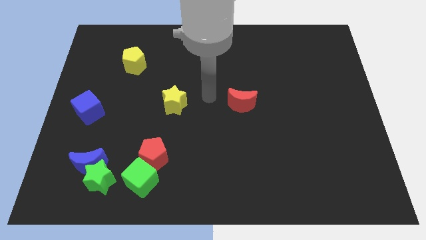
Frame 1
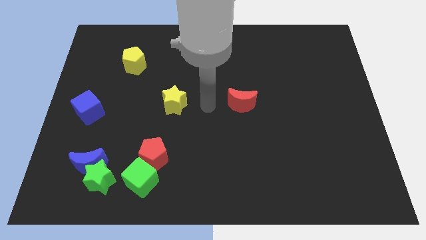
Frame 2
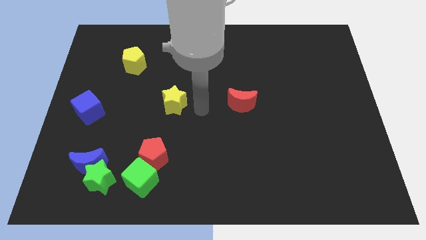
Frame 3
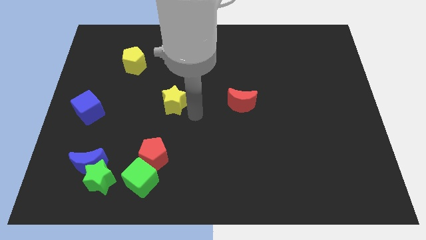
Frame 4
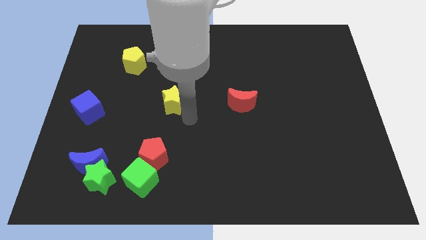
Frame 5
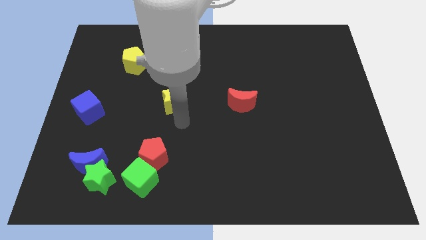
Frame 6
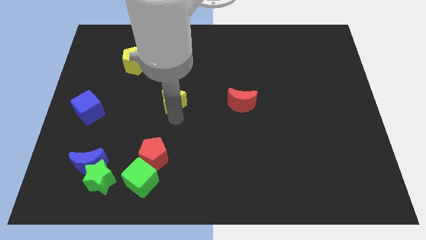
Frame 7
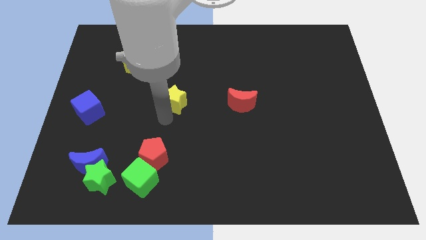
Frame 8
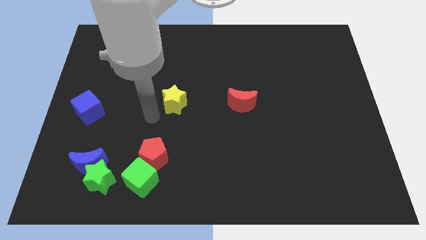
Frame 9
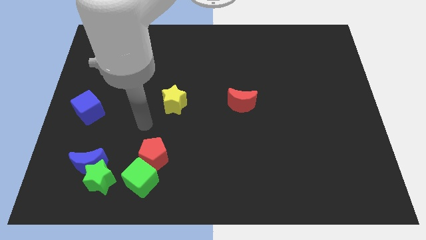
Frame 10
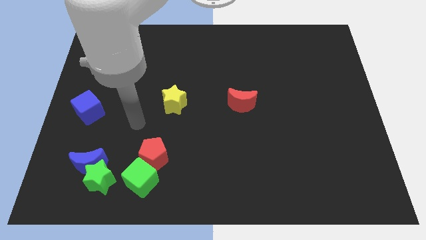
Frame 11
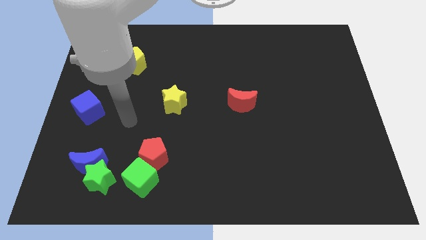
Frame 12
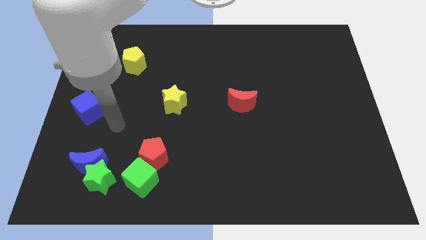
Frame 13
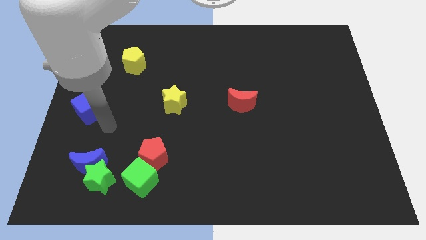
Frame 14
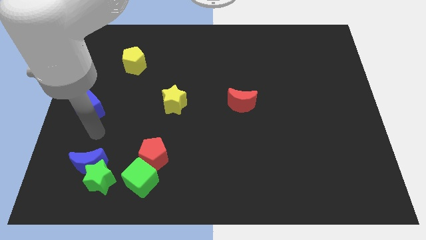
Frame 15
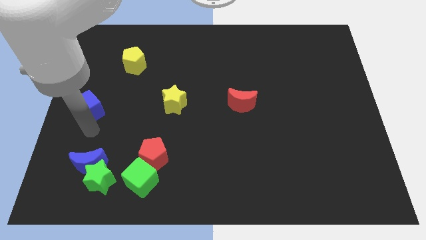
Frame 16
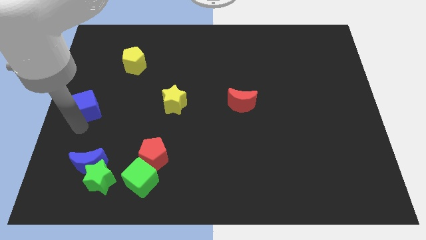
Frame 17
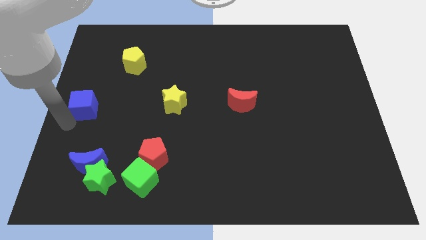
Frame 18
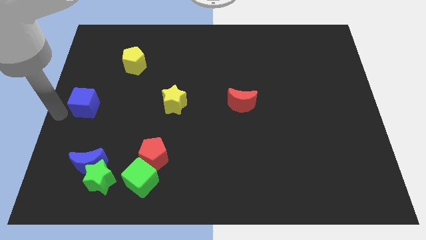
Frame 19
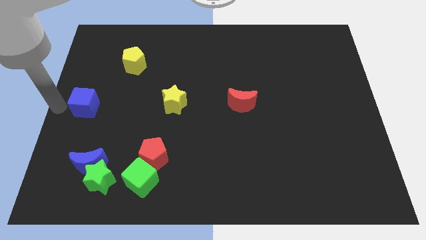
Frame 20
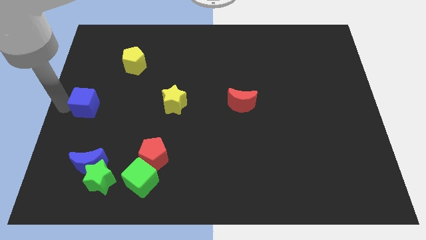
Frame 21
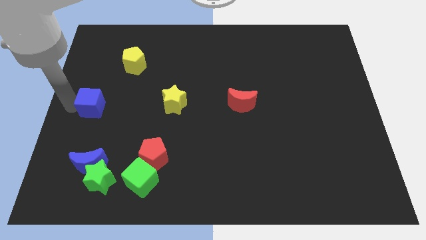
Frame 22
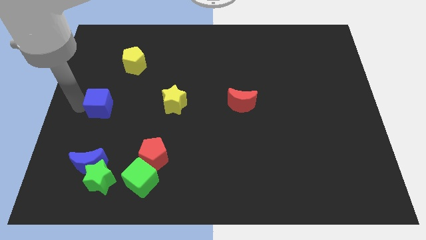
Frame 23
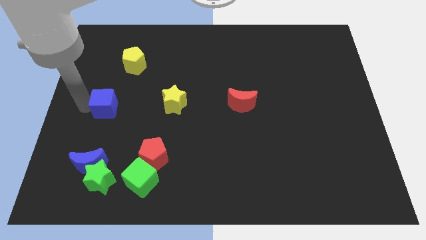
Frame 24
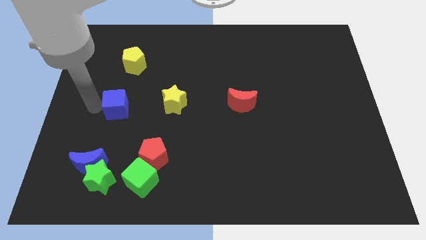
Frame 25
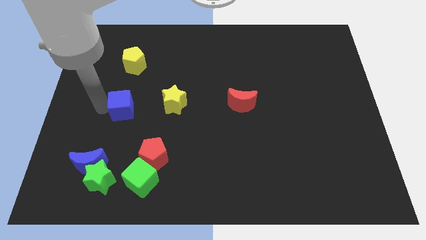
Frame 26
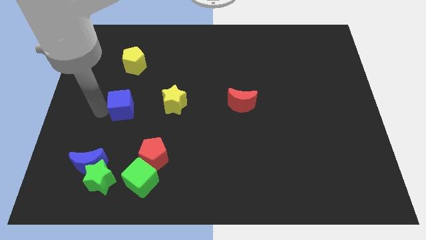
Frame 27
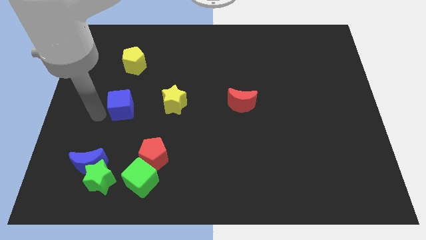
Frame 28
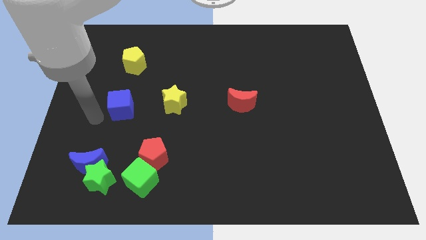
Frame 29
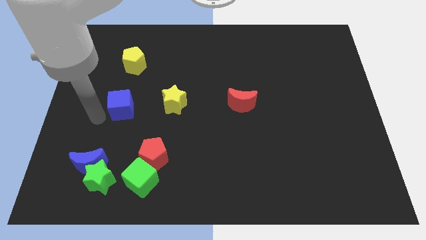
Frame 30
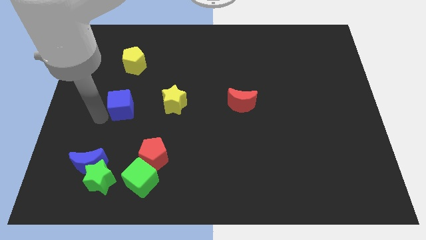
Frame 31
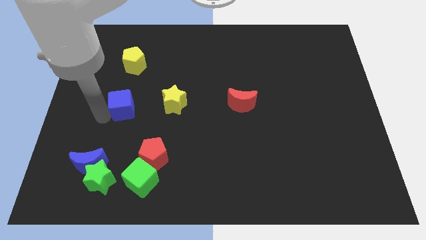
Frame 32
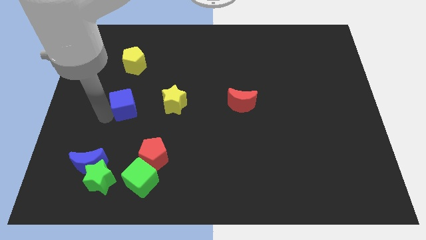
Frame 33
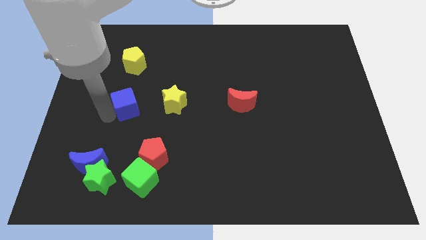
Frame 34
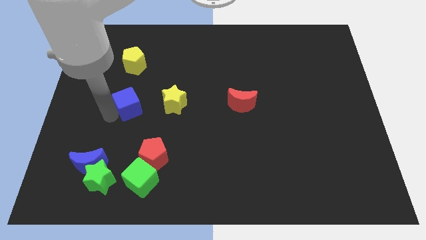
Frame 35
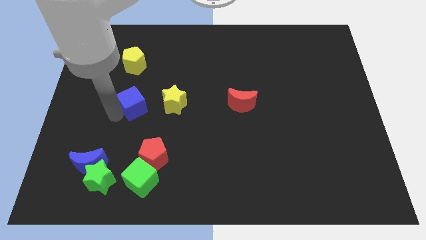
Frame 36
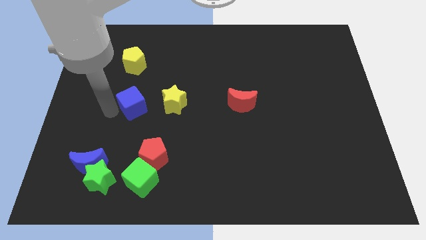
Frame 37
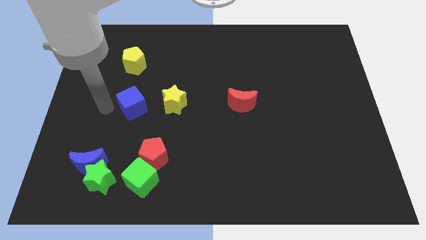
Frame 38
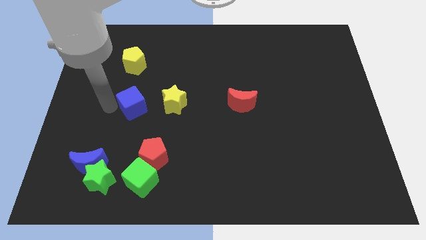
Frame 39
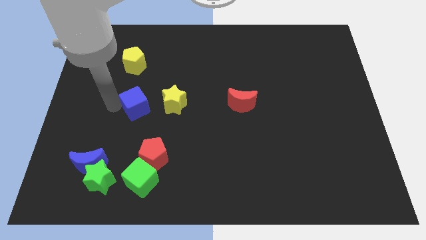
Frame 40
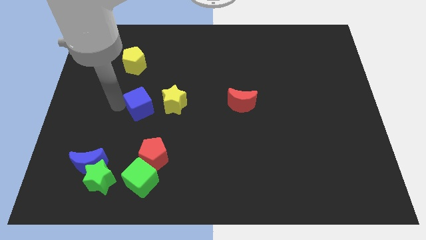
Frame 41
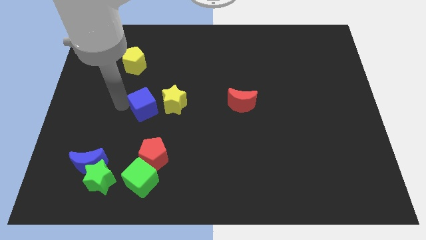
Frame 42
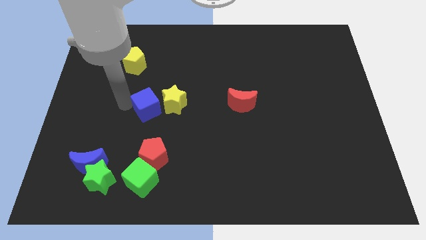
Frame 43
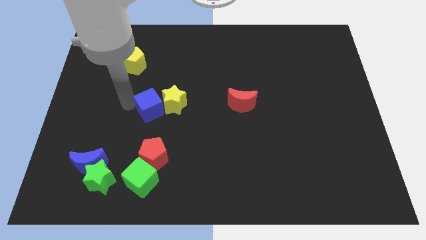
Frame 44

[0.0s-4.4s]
push the blue cube to the yellow star

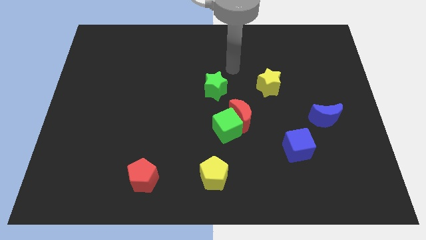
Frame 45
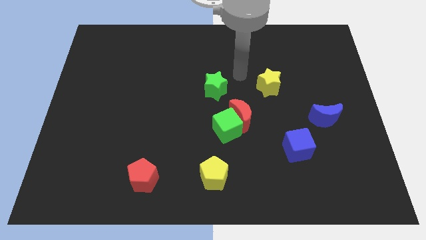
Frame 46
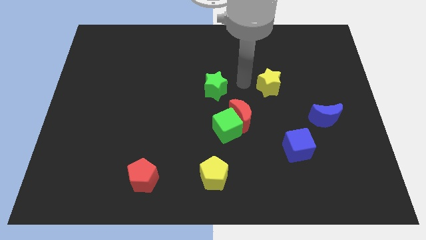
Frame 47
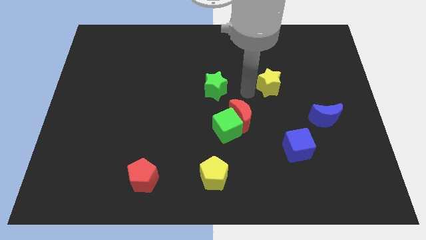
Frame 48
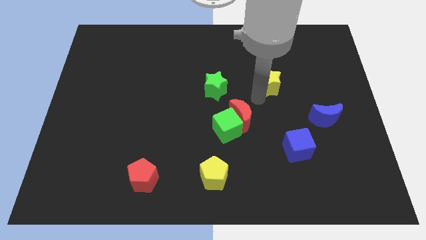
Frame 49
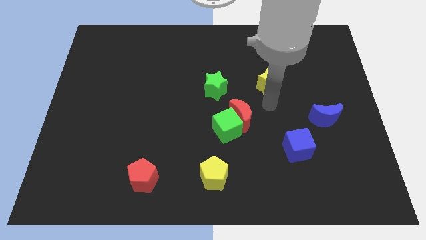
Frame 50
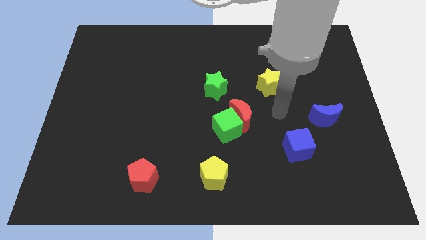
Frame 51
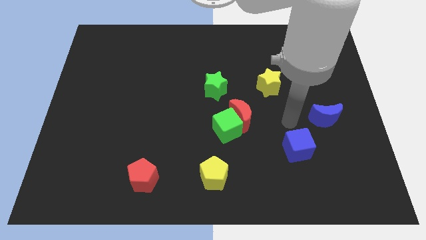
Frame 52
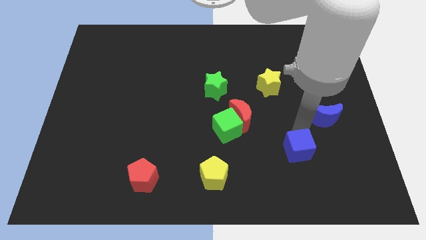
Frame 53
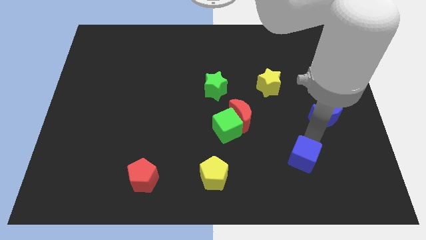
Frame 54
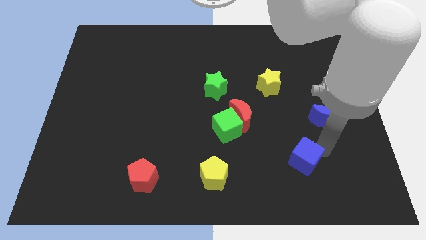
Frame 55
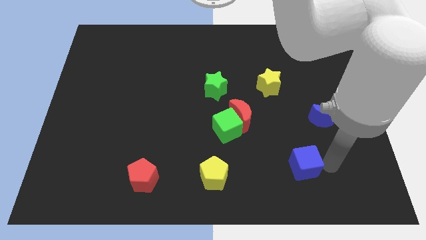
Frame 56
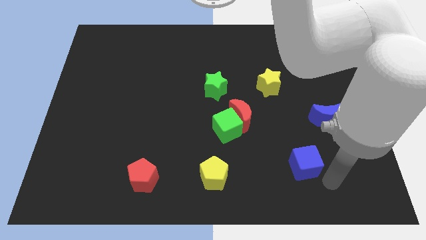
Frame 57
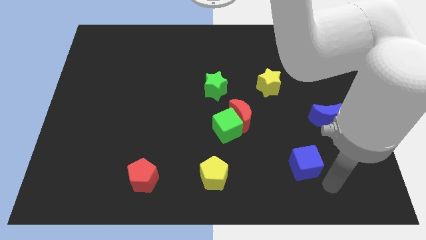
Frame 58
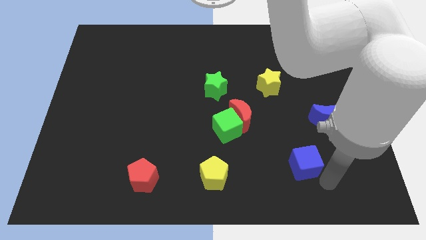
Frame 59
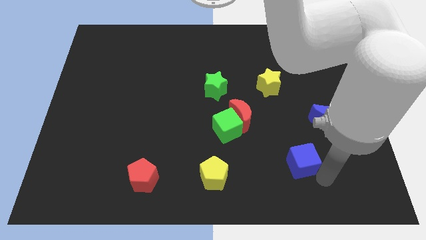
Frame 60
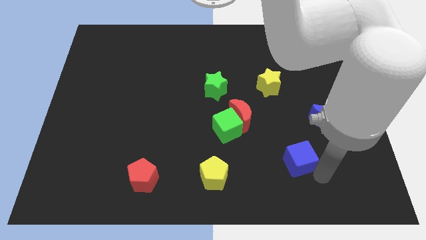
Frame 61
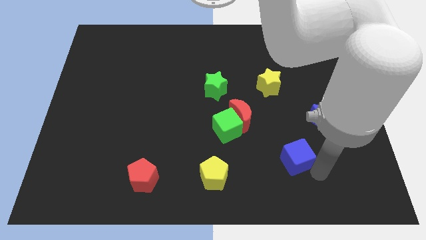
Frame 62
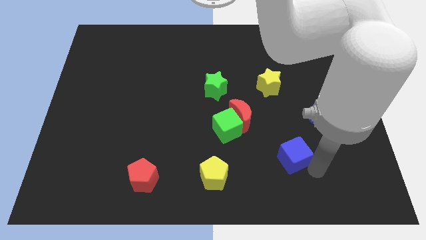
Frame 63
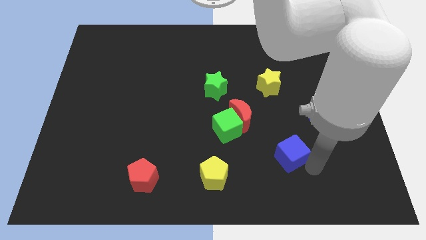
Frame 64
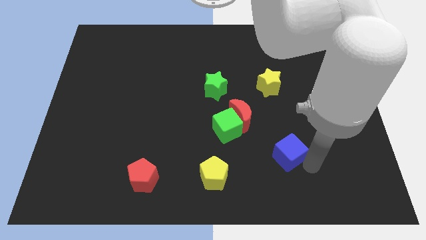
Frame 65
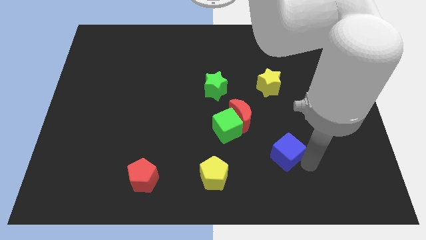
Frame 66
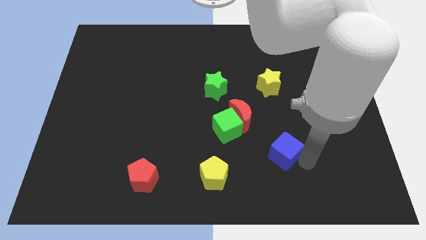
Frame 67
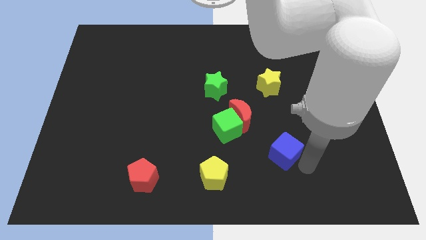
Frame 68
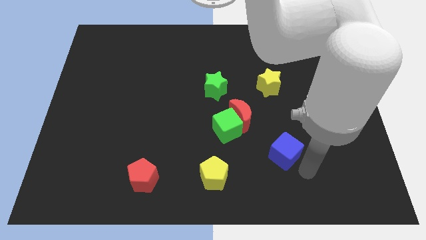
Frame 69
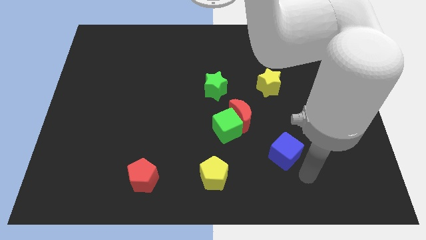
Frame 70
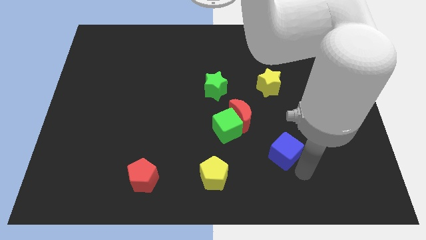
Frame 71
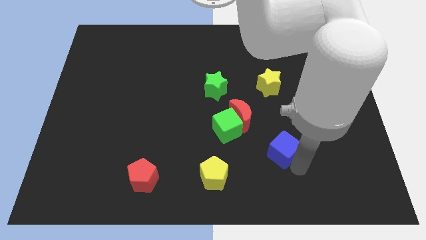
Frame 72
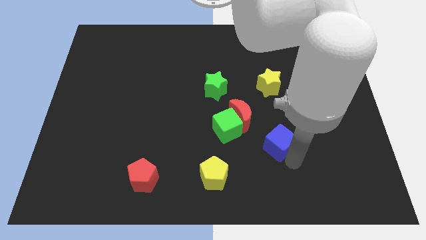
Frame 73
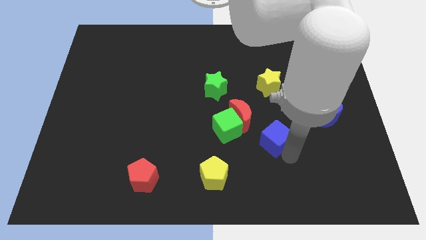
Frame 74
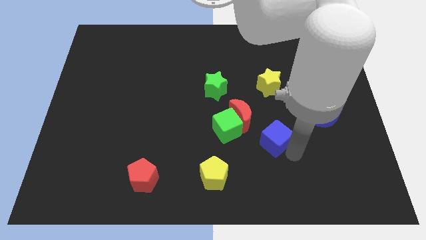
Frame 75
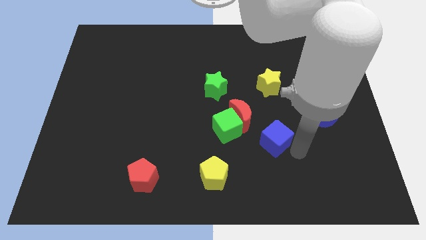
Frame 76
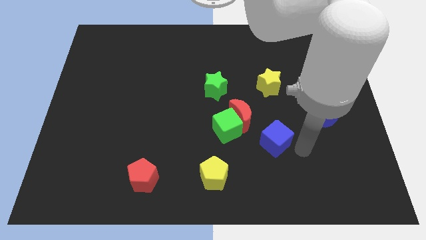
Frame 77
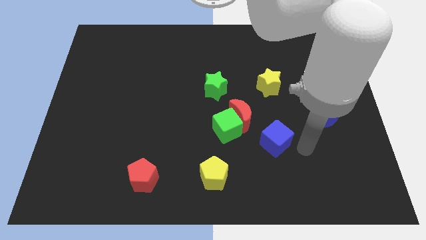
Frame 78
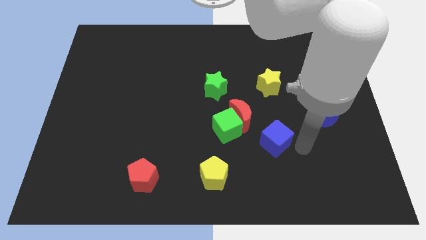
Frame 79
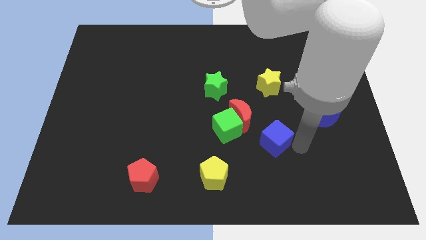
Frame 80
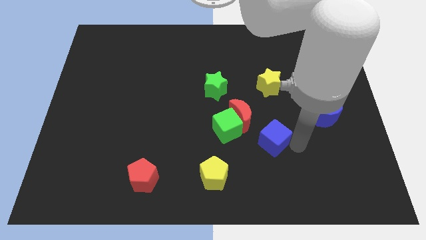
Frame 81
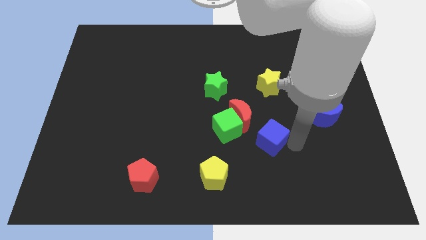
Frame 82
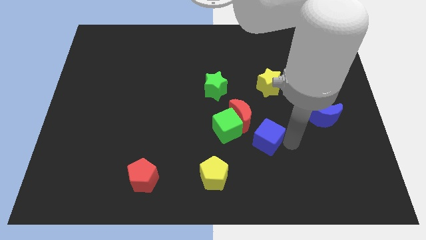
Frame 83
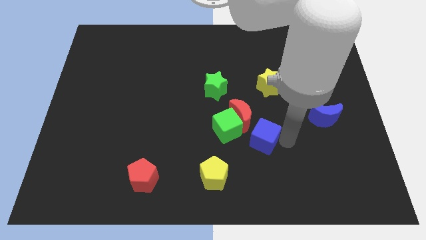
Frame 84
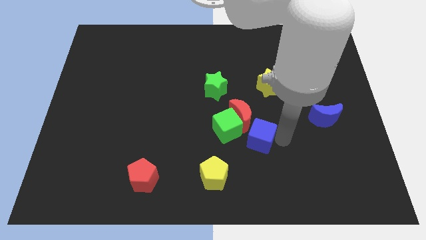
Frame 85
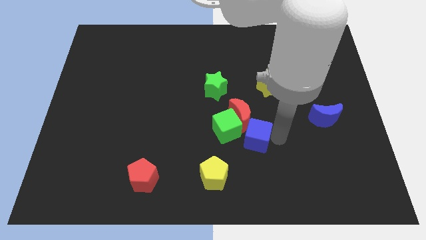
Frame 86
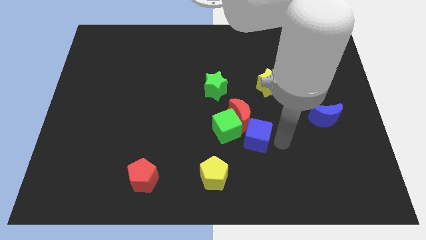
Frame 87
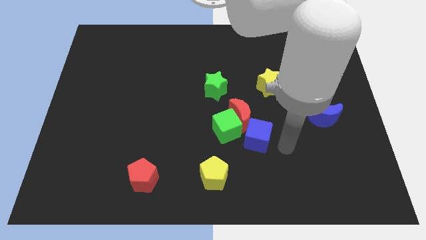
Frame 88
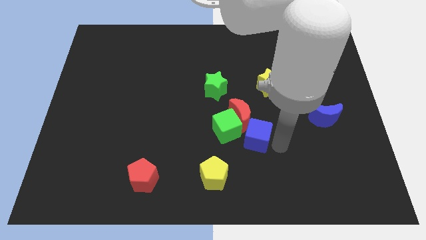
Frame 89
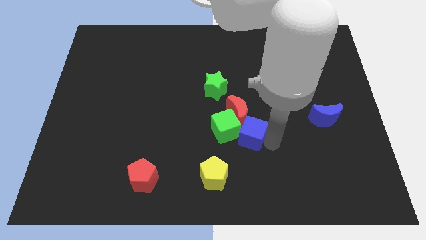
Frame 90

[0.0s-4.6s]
slide the blue cube close to the green cube
